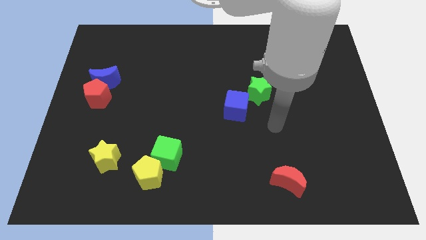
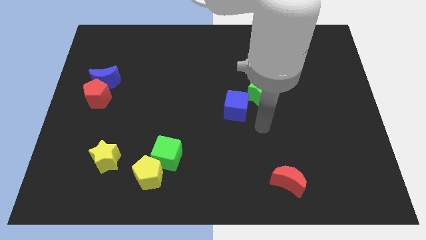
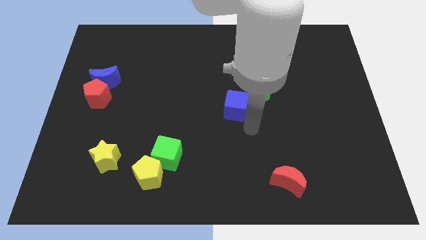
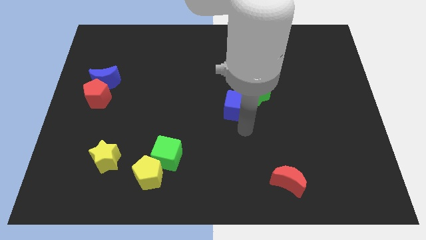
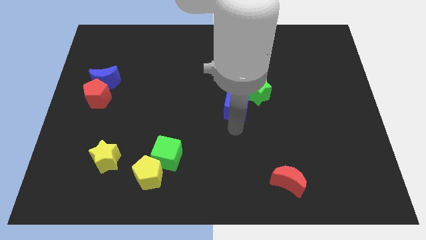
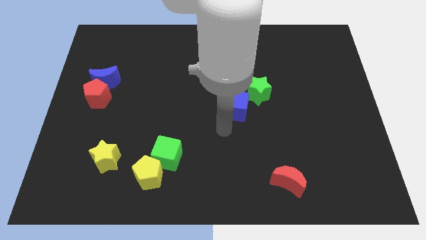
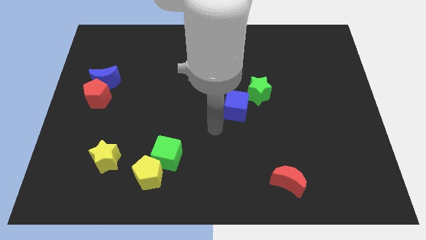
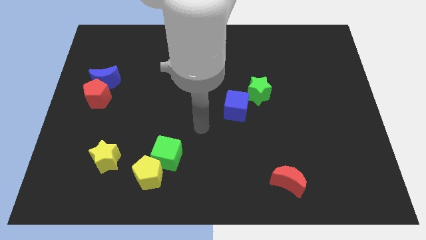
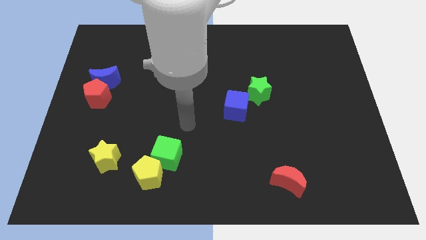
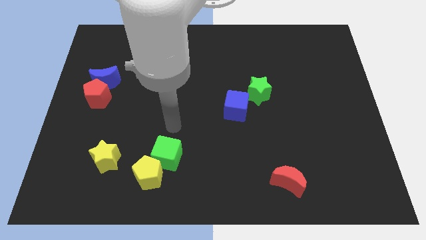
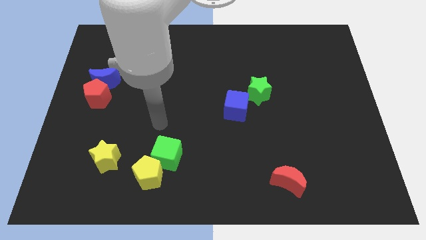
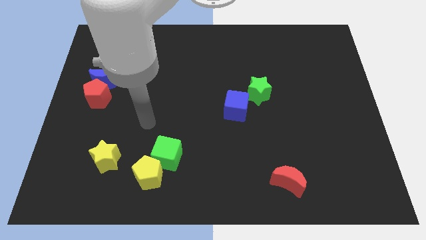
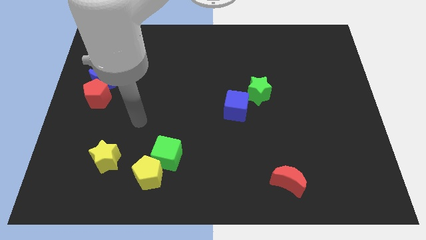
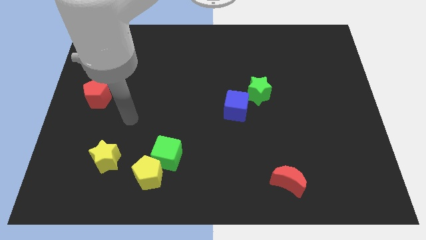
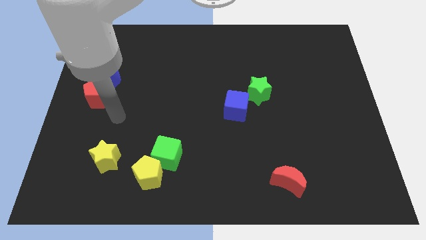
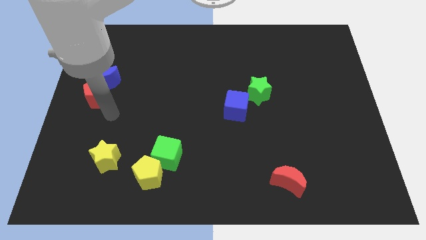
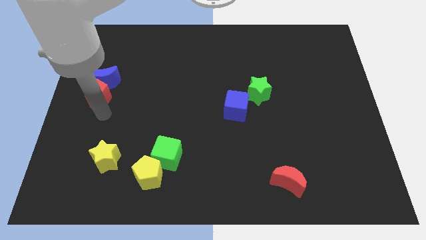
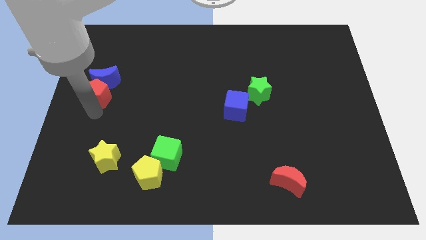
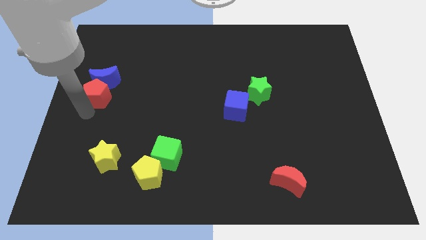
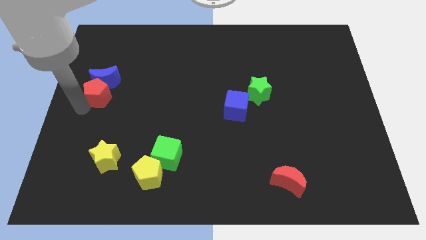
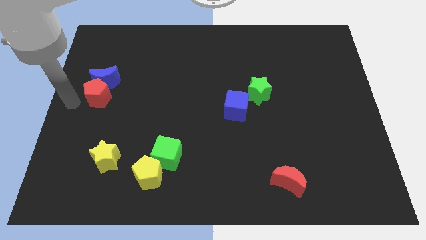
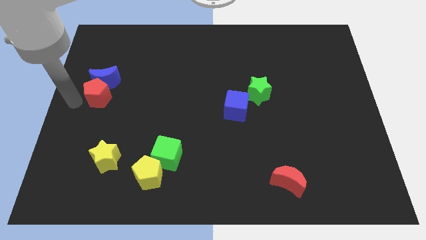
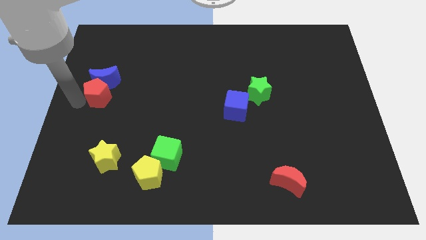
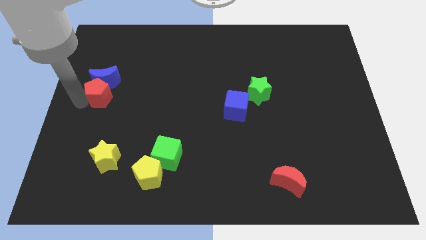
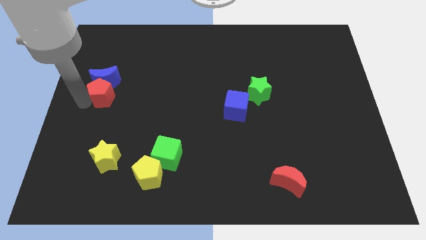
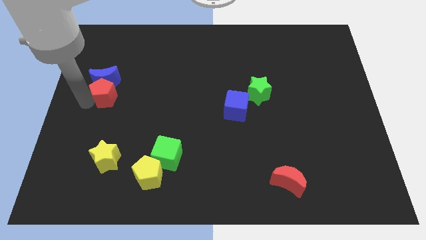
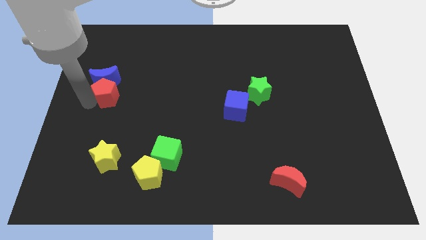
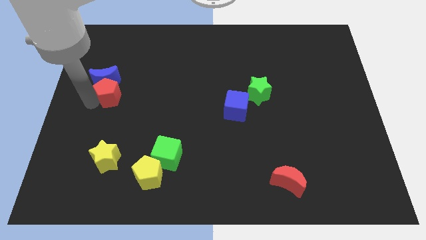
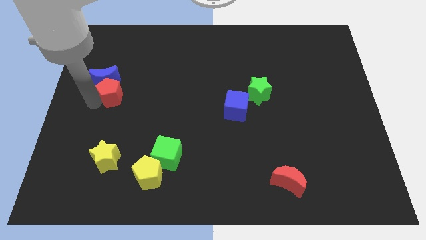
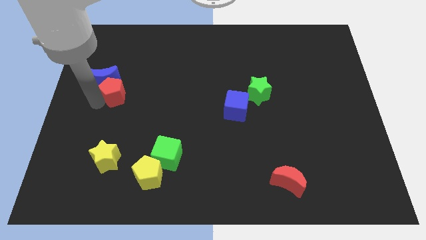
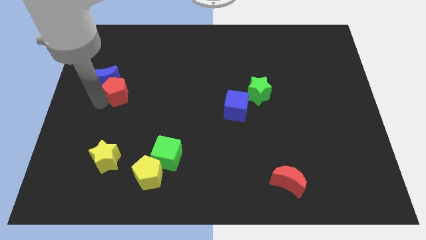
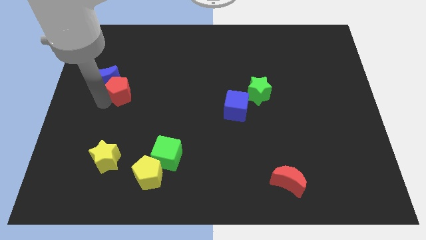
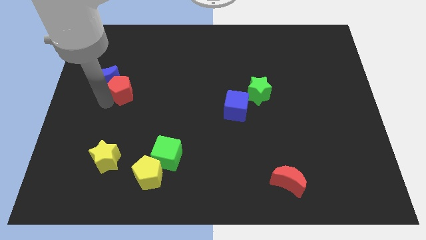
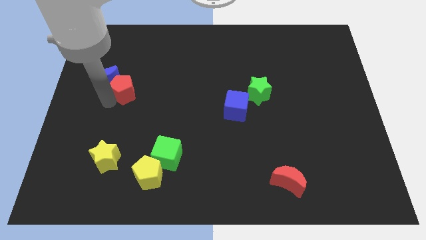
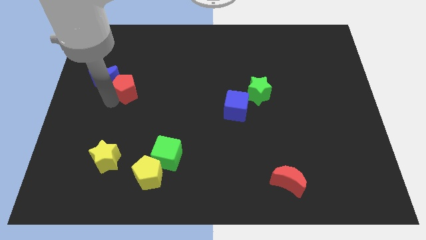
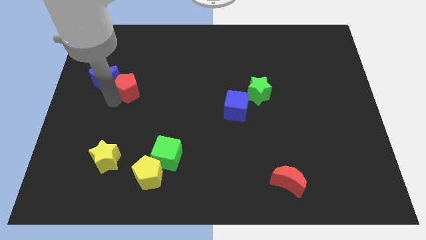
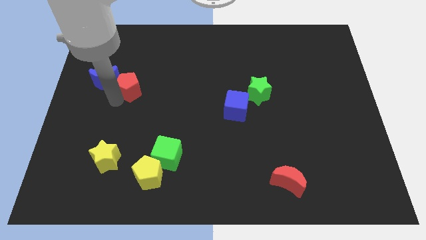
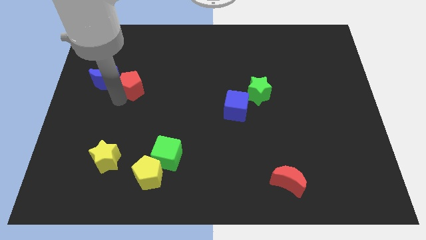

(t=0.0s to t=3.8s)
slightly slide the red pentagon upwards and right diagonally

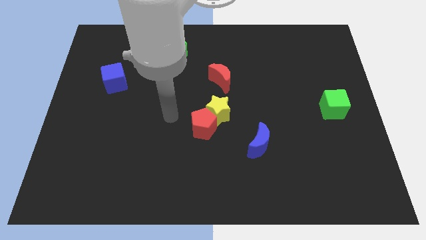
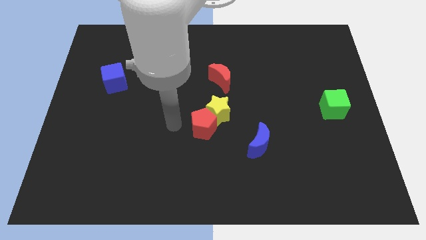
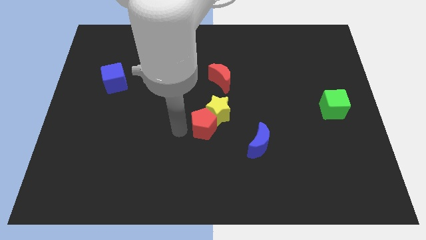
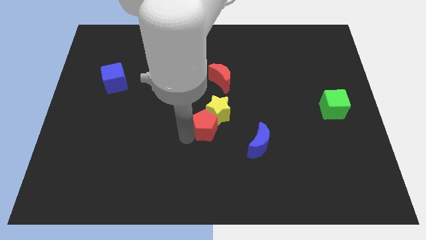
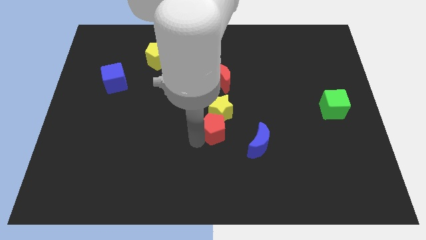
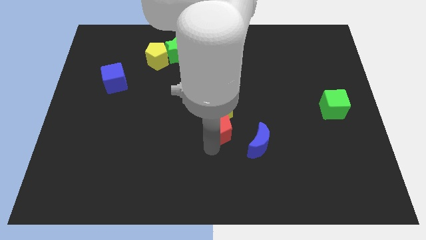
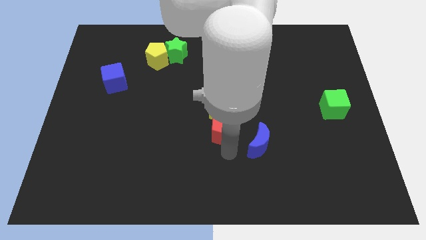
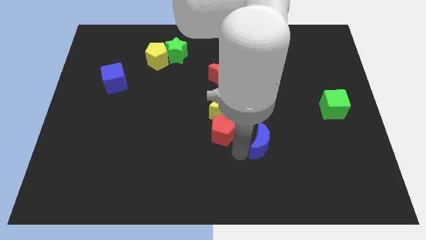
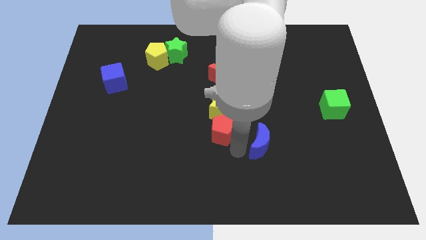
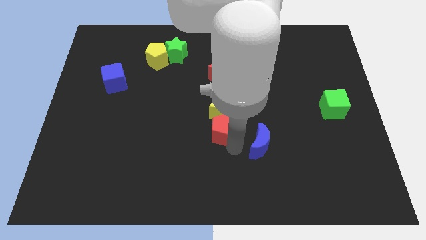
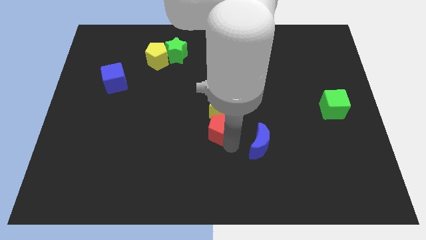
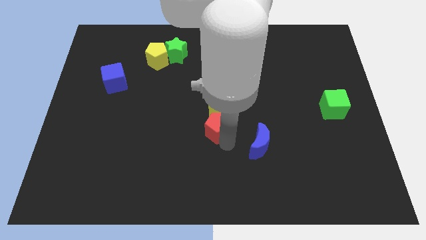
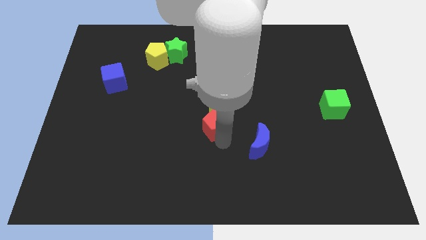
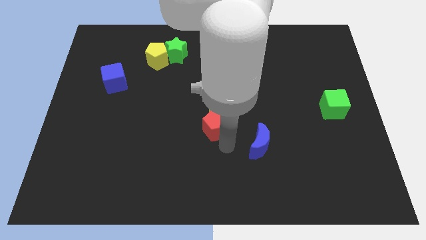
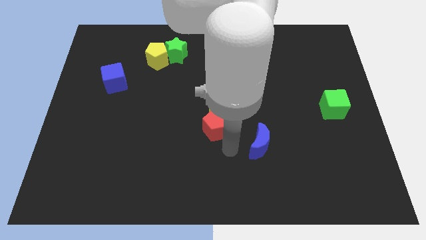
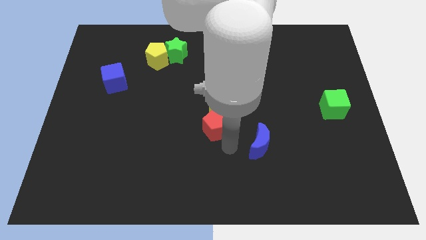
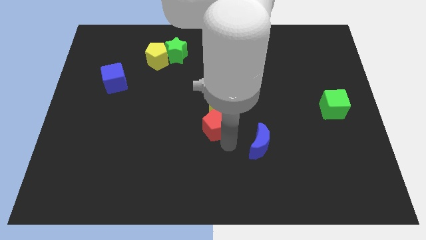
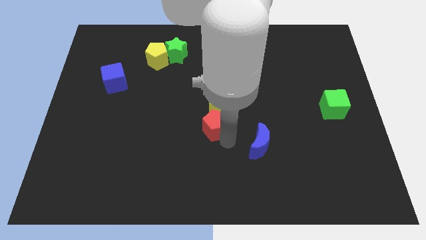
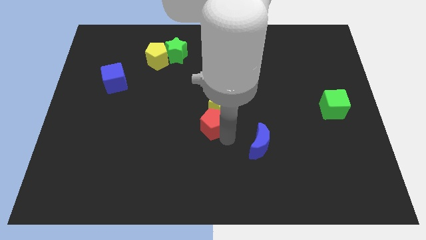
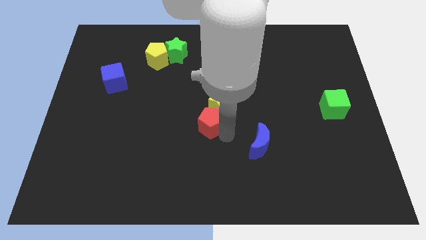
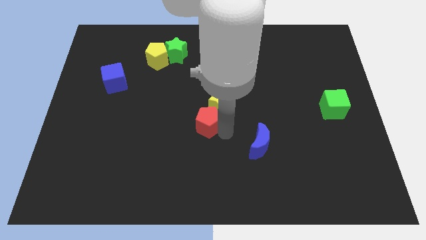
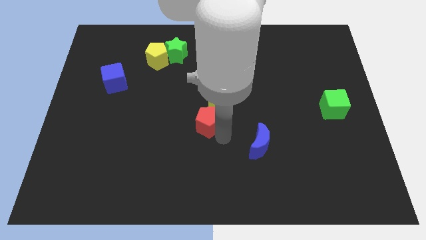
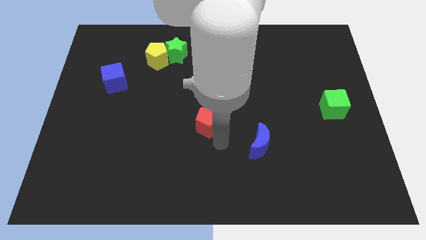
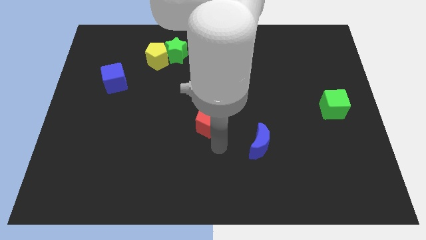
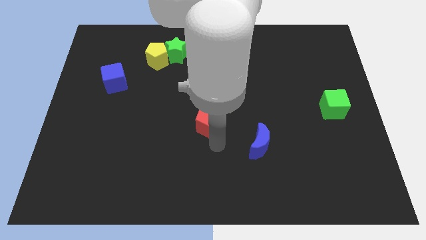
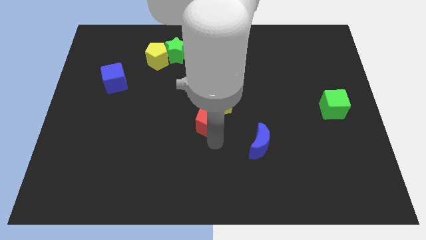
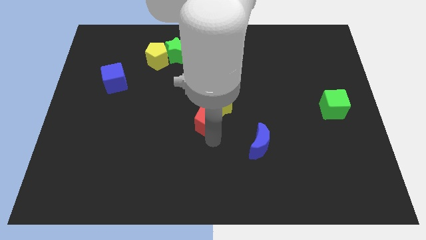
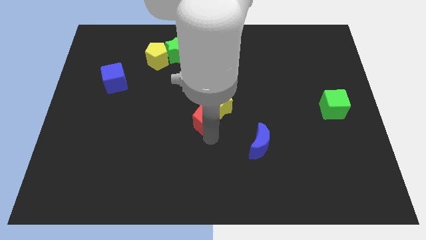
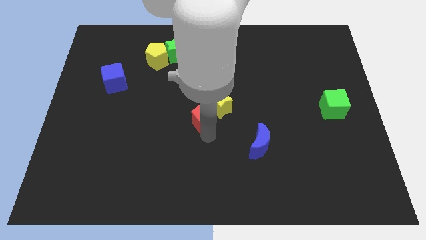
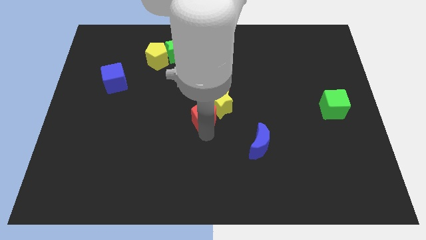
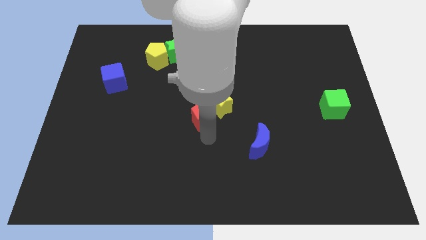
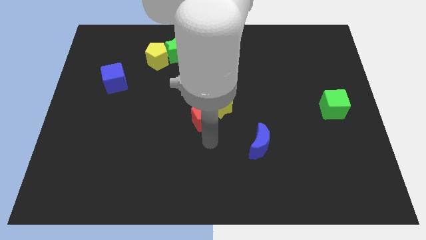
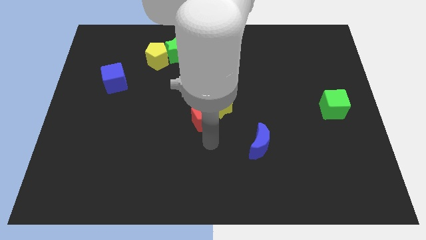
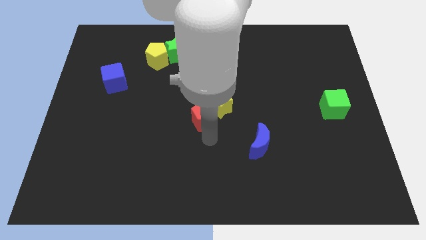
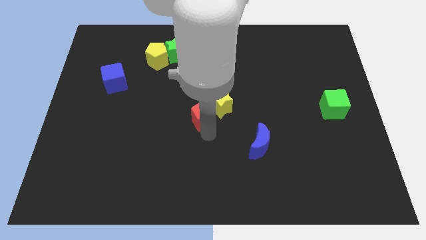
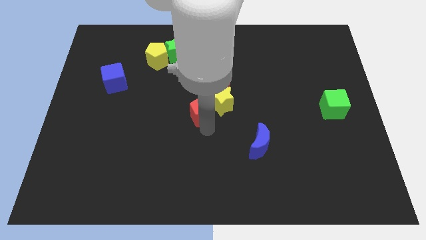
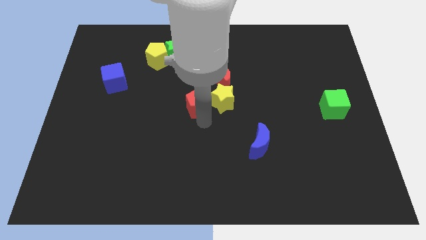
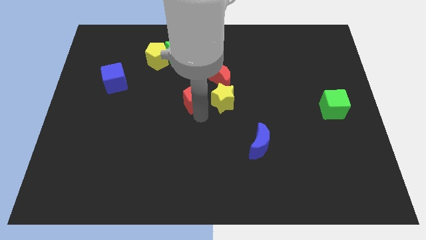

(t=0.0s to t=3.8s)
slightly move the red pentagon up

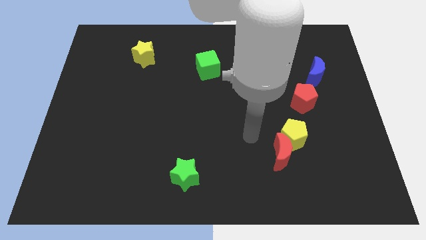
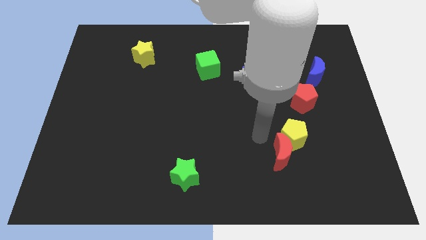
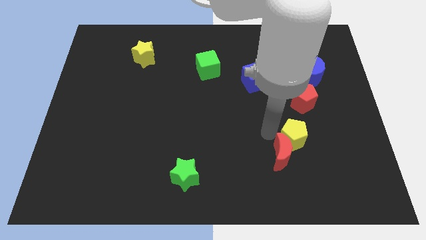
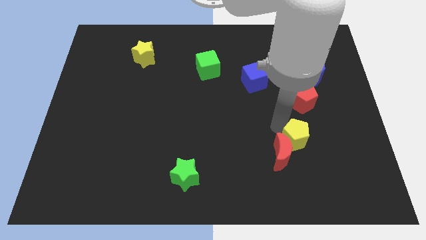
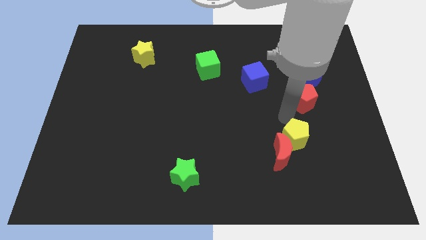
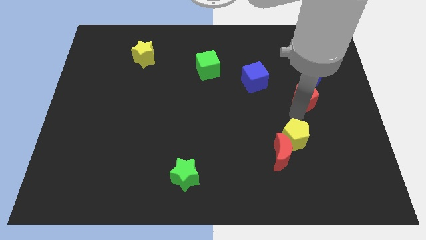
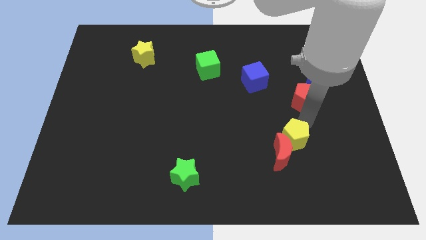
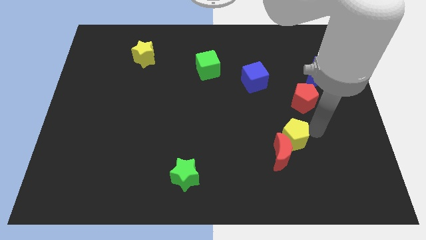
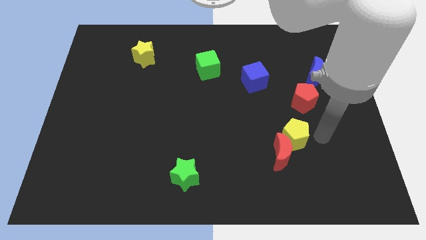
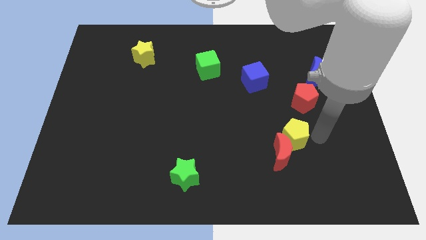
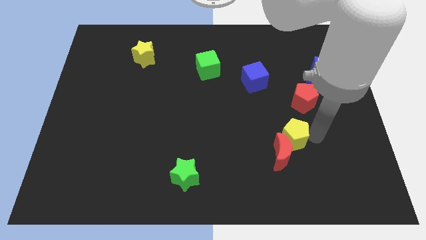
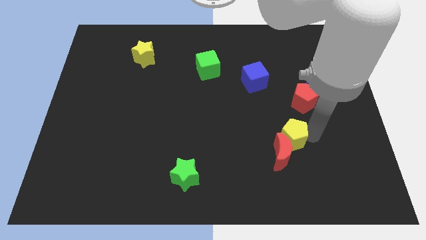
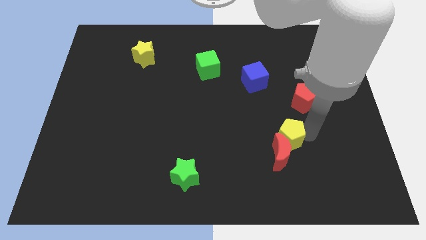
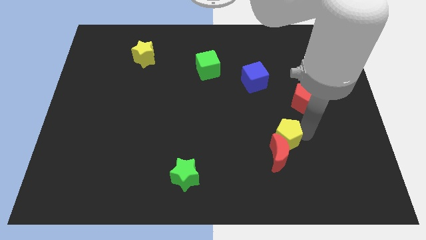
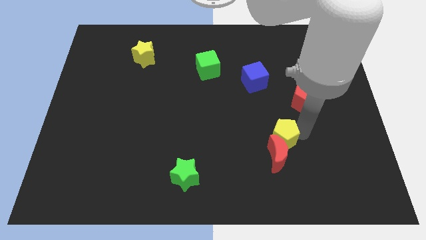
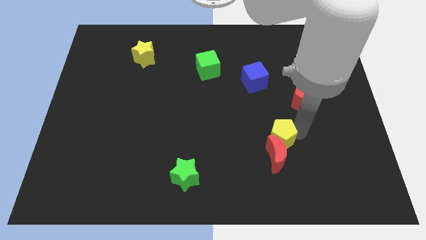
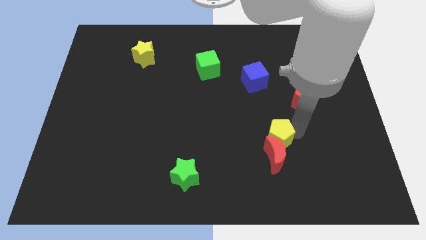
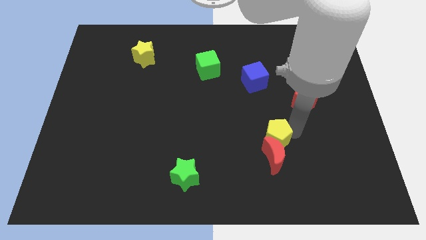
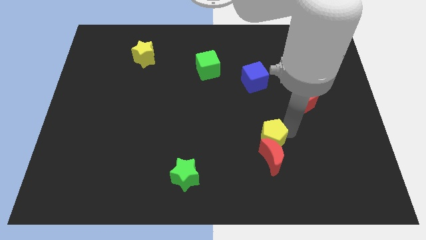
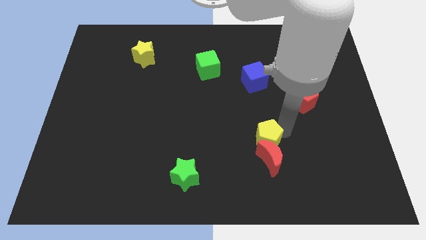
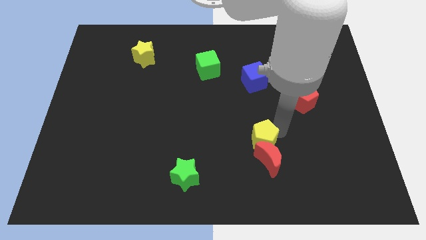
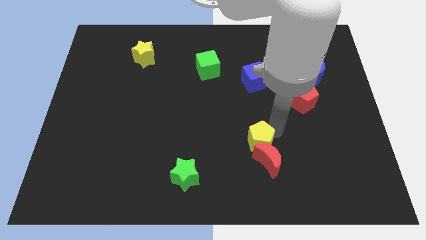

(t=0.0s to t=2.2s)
slightly slide the yellow pentagon left
